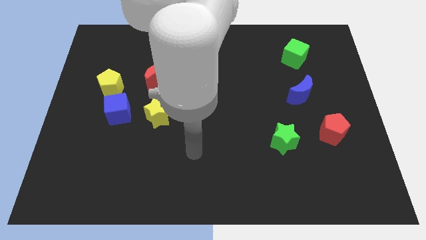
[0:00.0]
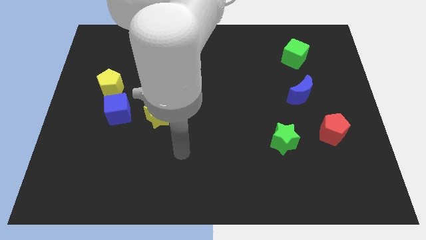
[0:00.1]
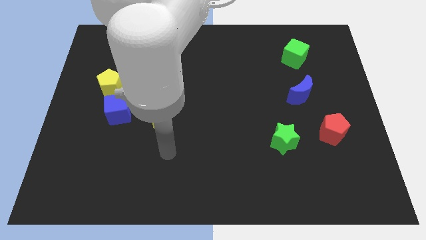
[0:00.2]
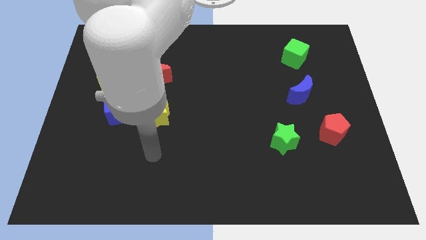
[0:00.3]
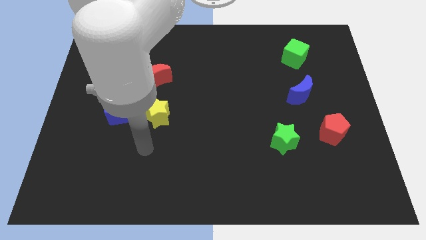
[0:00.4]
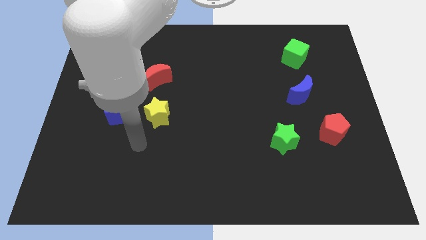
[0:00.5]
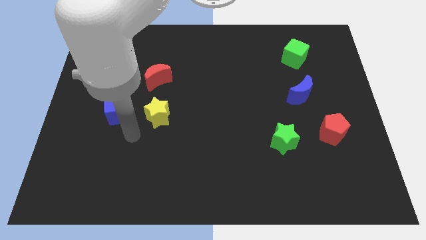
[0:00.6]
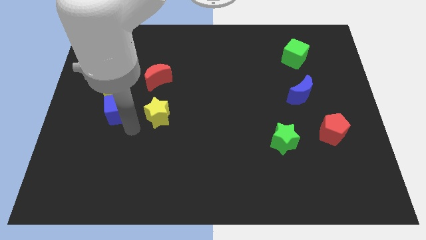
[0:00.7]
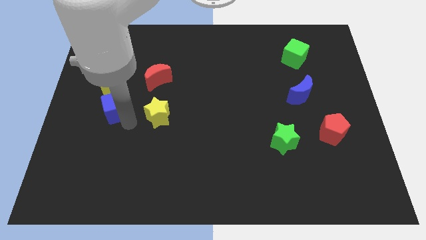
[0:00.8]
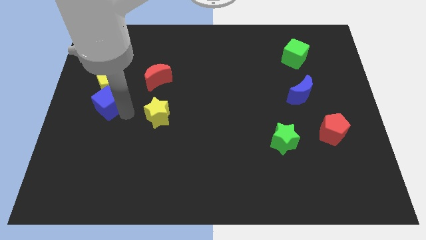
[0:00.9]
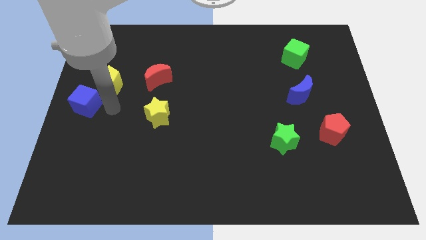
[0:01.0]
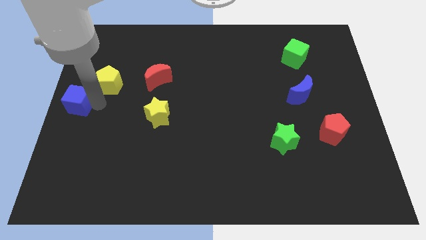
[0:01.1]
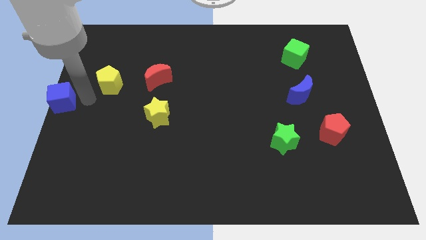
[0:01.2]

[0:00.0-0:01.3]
separate the yellow pentagon from the blue cube

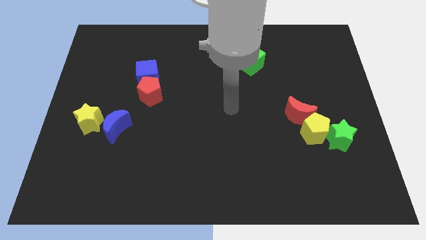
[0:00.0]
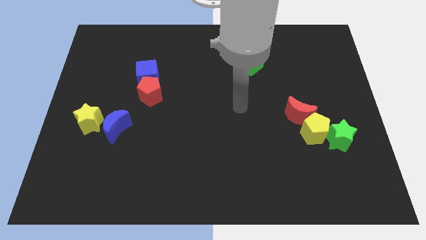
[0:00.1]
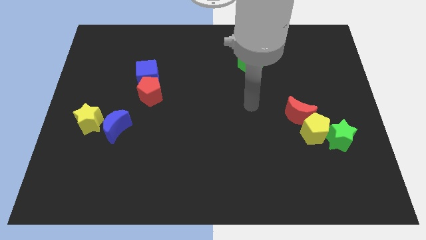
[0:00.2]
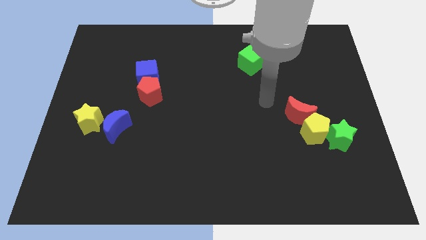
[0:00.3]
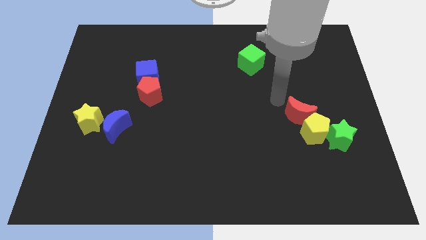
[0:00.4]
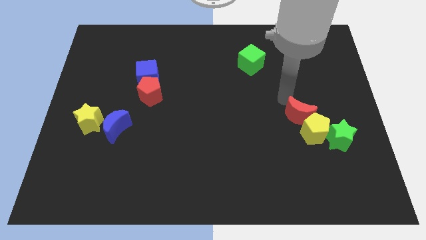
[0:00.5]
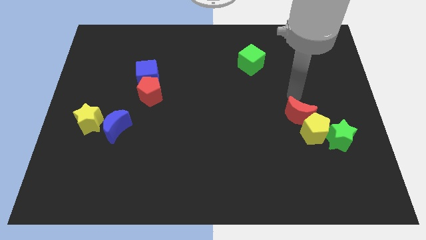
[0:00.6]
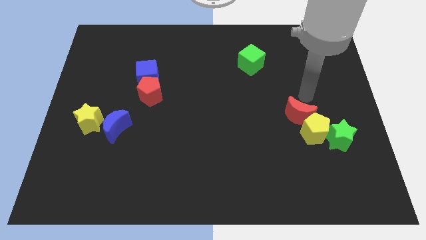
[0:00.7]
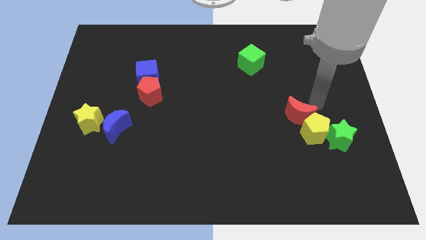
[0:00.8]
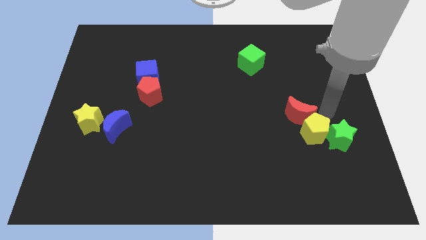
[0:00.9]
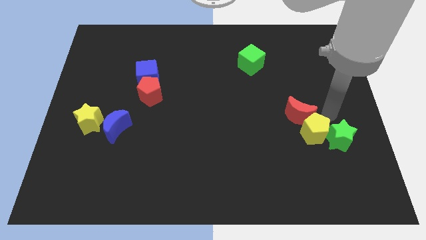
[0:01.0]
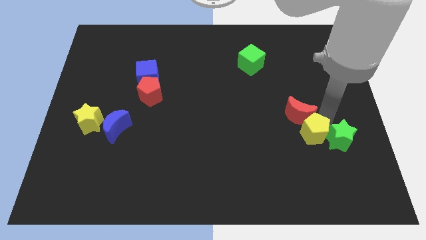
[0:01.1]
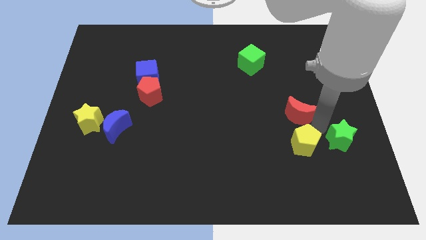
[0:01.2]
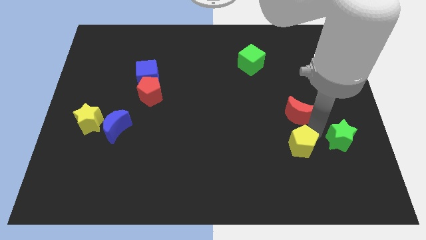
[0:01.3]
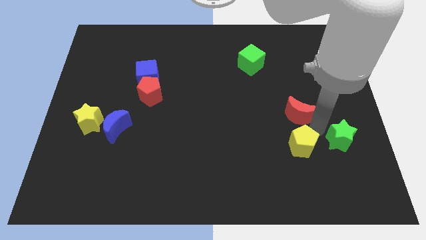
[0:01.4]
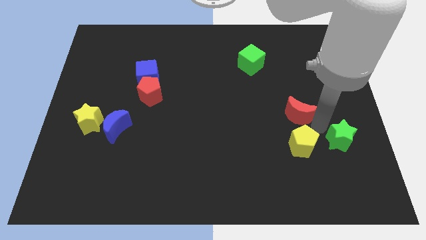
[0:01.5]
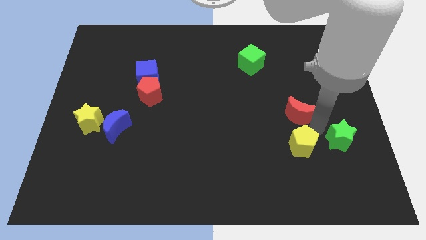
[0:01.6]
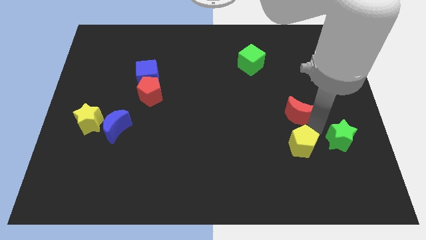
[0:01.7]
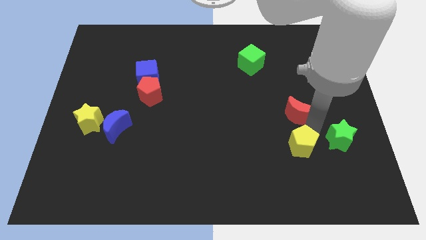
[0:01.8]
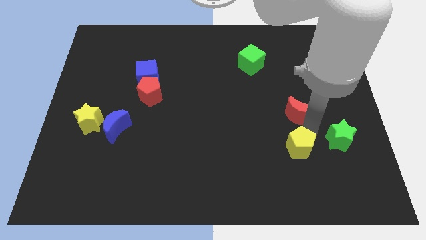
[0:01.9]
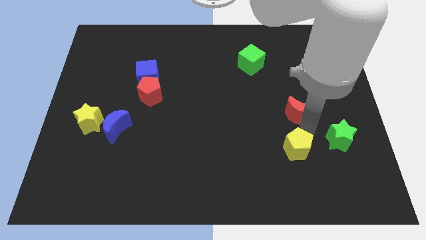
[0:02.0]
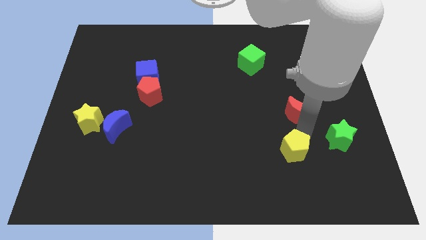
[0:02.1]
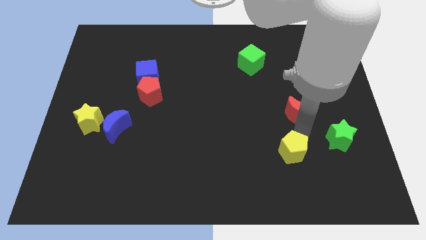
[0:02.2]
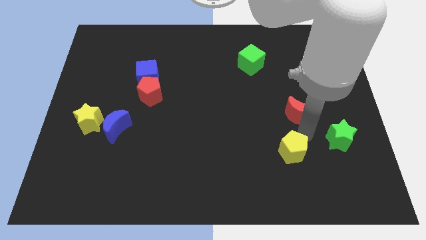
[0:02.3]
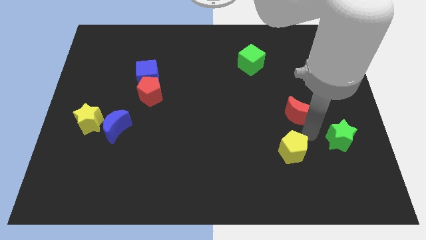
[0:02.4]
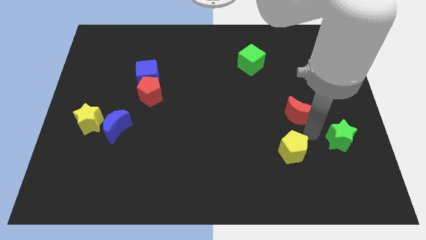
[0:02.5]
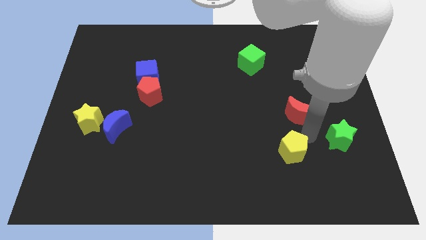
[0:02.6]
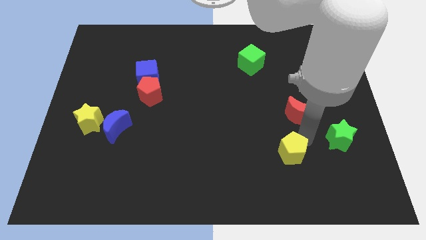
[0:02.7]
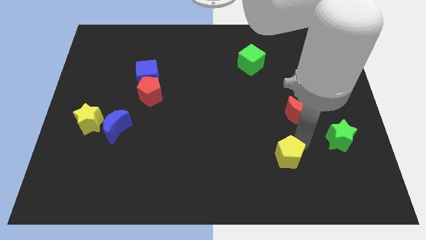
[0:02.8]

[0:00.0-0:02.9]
separate the yellow pentagon from the red moon and green star

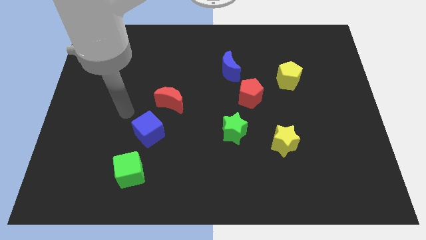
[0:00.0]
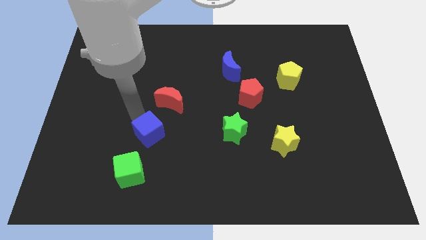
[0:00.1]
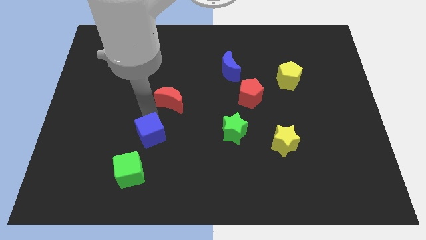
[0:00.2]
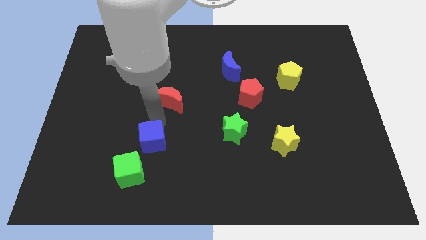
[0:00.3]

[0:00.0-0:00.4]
move the red moon away from the blue cube

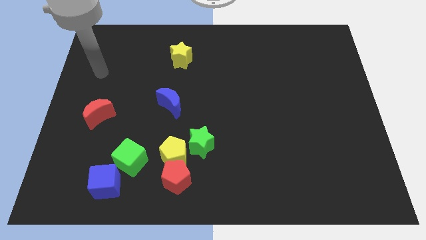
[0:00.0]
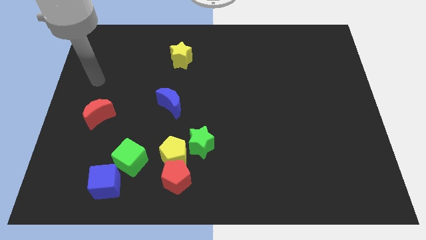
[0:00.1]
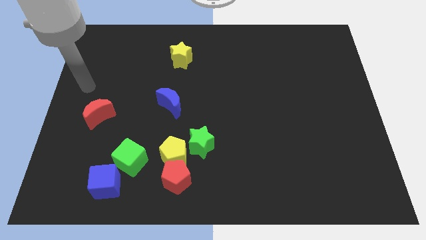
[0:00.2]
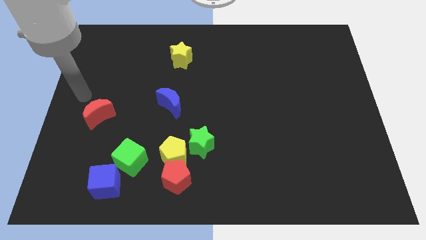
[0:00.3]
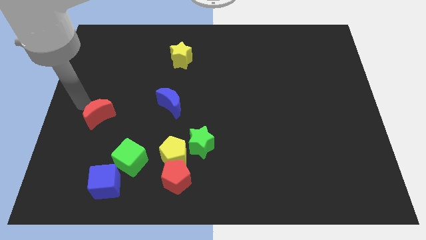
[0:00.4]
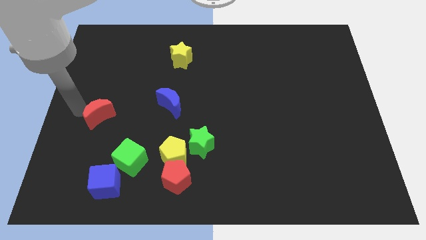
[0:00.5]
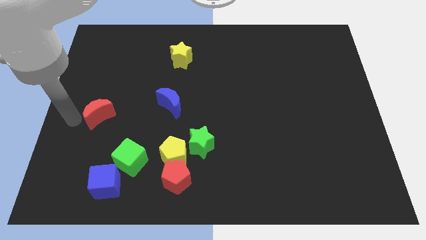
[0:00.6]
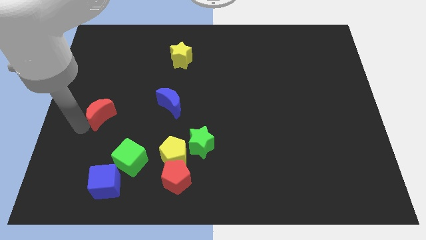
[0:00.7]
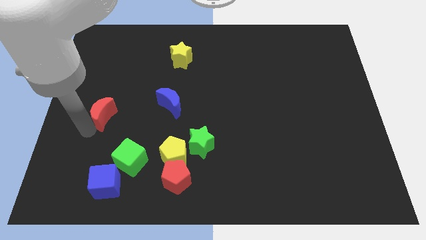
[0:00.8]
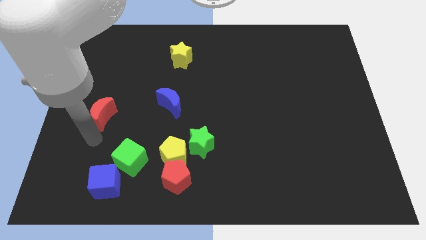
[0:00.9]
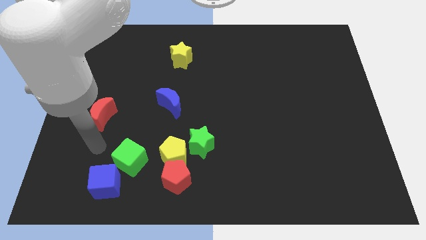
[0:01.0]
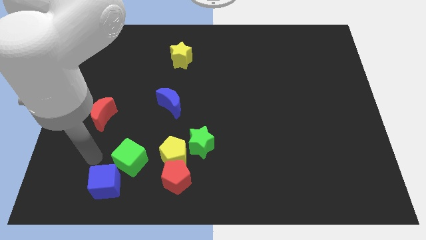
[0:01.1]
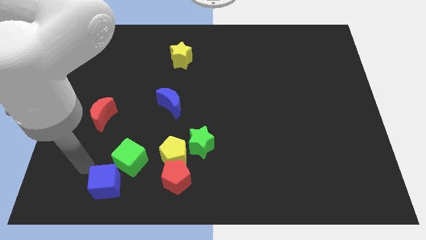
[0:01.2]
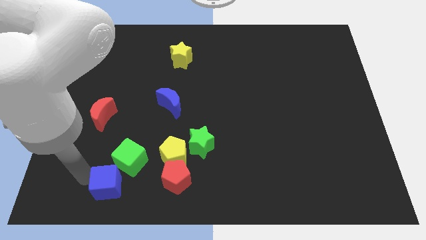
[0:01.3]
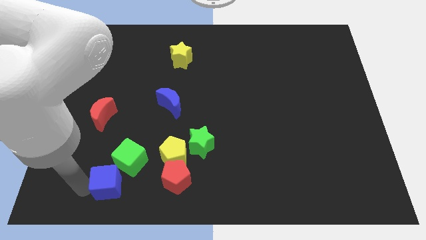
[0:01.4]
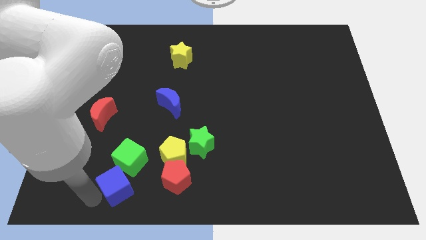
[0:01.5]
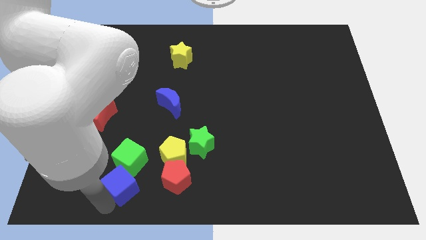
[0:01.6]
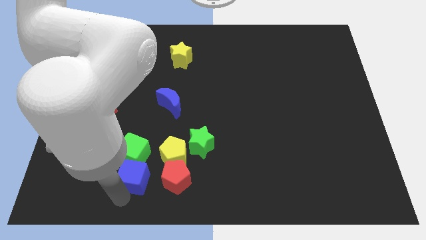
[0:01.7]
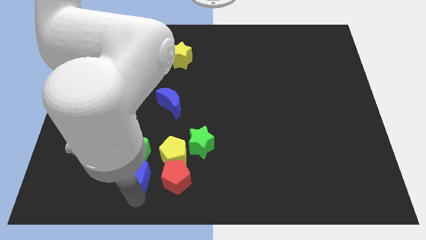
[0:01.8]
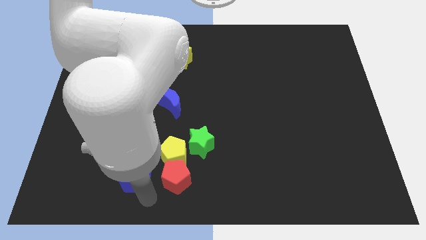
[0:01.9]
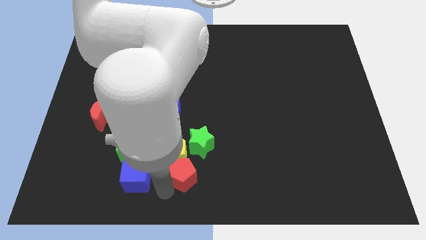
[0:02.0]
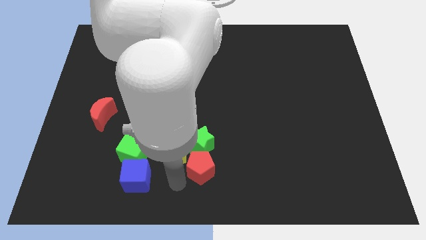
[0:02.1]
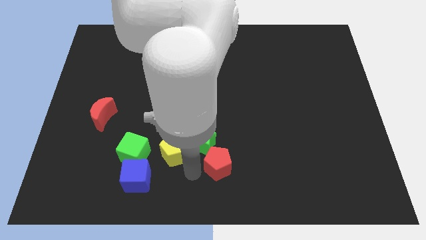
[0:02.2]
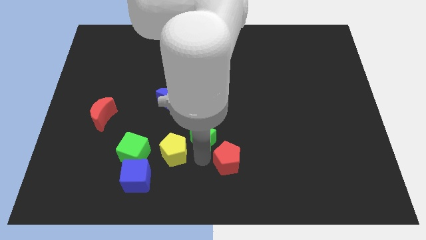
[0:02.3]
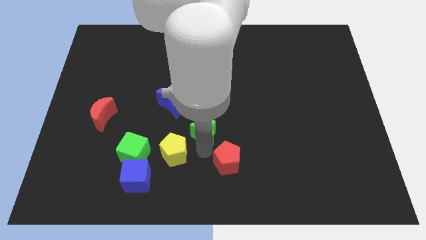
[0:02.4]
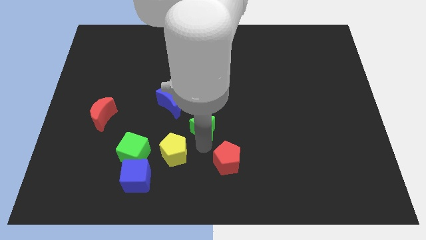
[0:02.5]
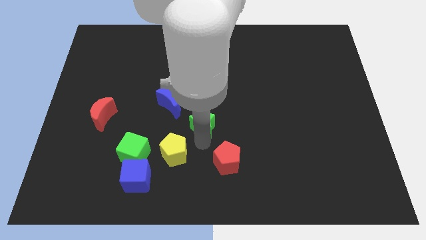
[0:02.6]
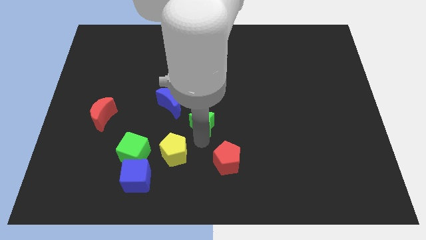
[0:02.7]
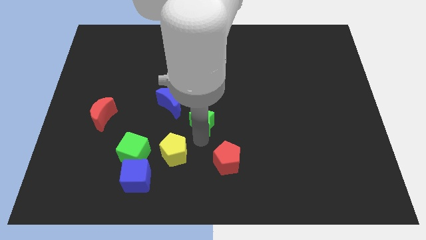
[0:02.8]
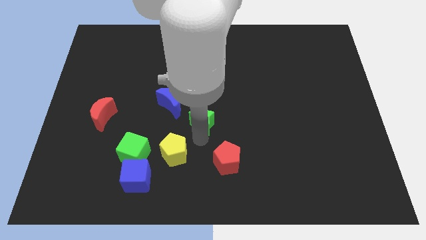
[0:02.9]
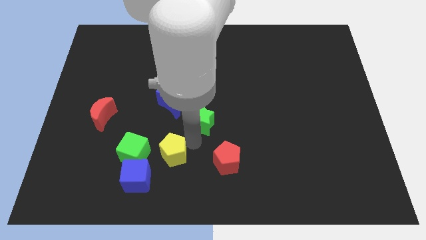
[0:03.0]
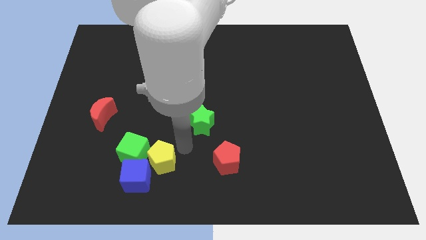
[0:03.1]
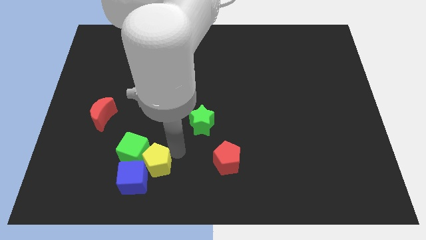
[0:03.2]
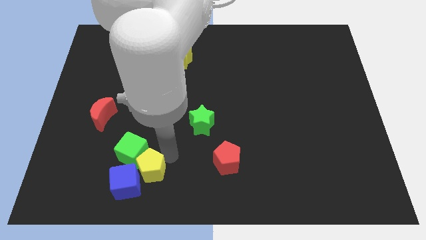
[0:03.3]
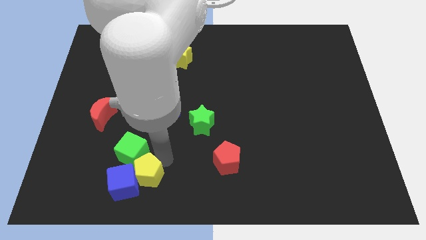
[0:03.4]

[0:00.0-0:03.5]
separate the yellow pentagon from the red pentagon, green star, and green cube

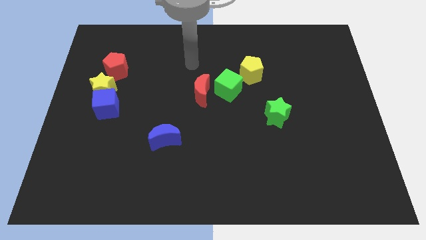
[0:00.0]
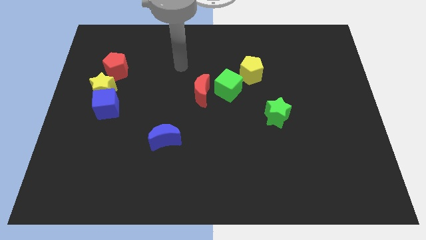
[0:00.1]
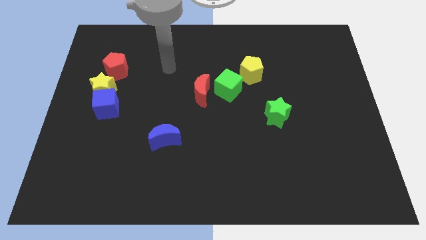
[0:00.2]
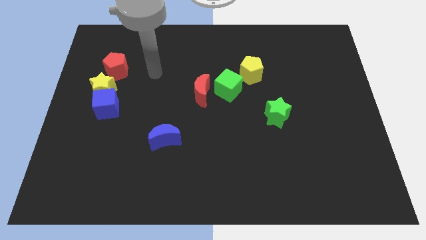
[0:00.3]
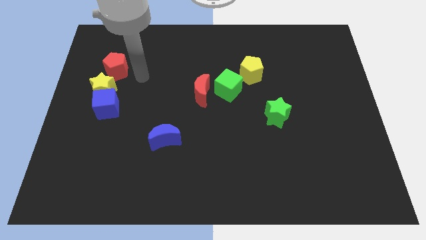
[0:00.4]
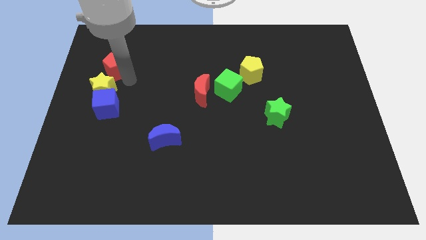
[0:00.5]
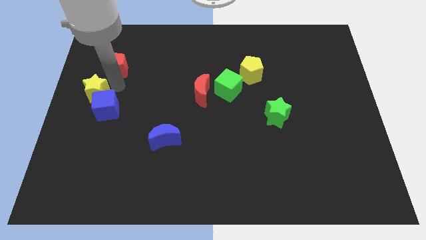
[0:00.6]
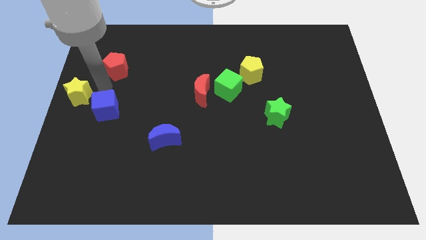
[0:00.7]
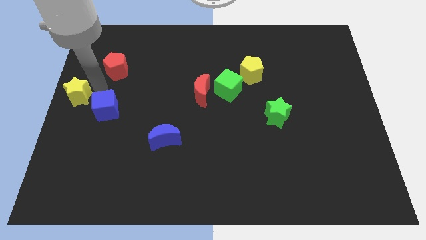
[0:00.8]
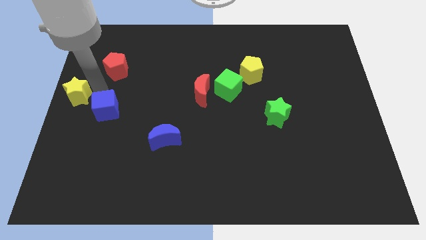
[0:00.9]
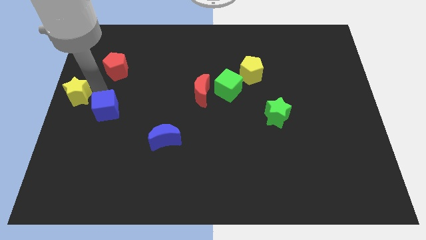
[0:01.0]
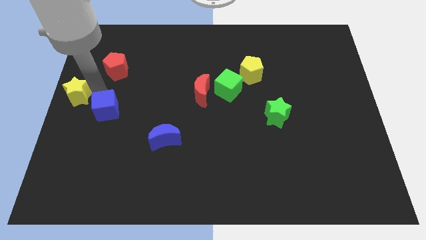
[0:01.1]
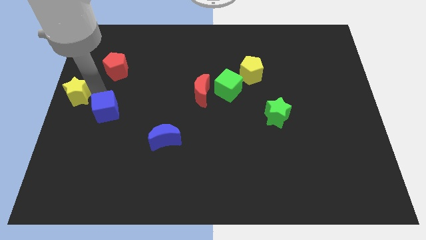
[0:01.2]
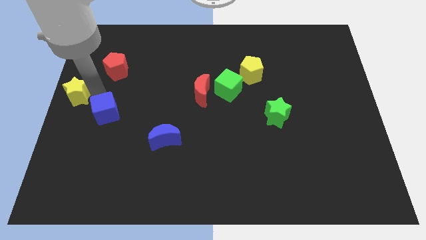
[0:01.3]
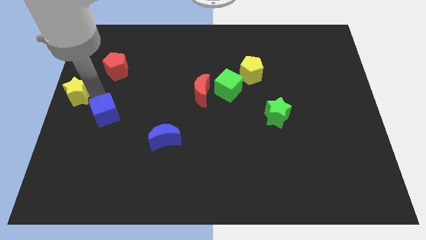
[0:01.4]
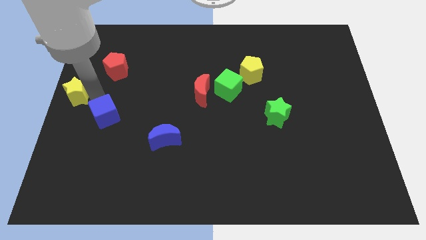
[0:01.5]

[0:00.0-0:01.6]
move the blue cube away from the yellow star
